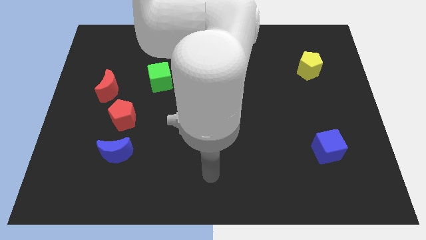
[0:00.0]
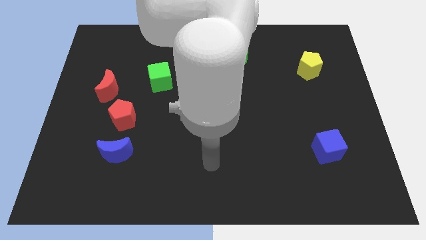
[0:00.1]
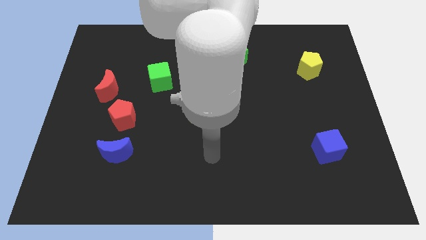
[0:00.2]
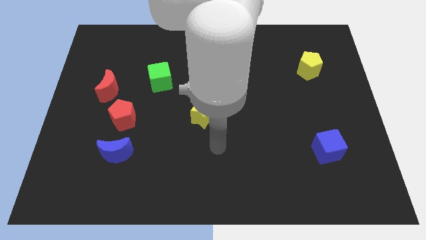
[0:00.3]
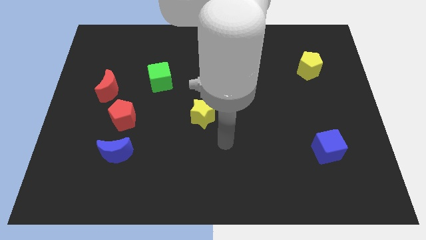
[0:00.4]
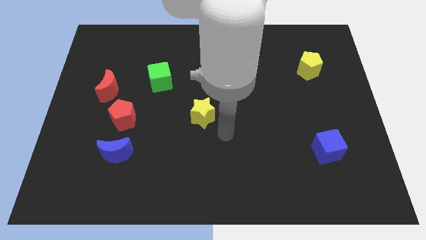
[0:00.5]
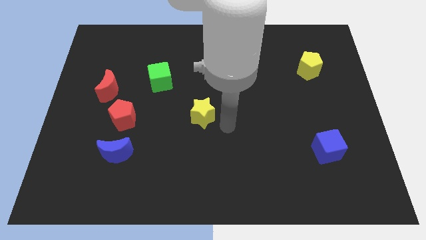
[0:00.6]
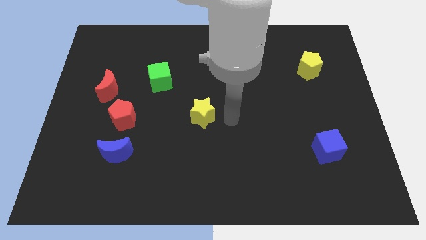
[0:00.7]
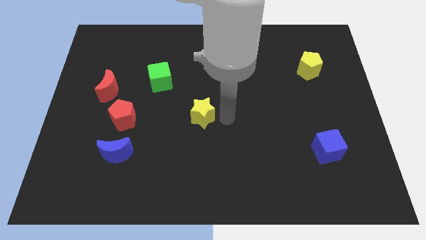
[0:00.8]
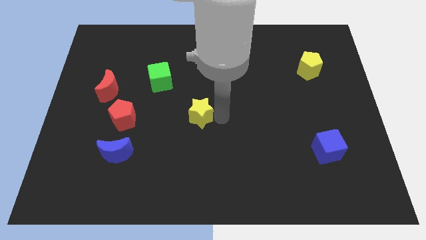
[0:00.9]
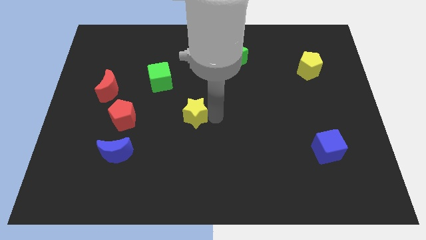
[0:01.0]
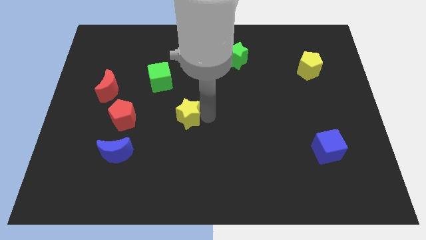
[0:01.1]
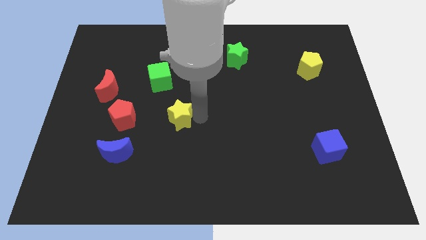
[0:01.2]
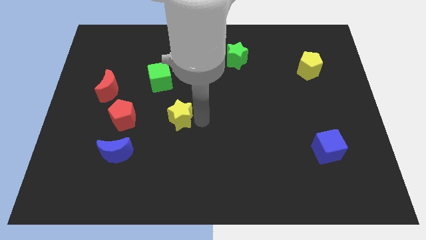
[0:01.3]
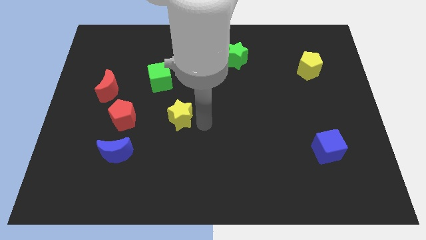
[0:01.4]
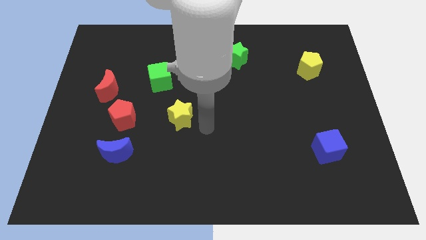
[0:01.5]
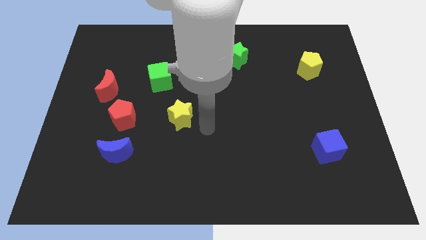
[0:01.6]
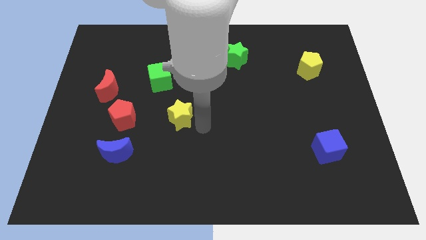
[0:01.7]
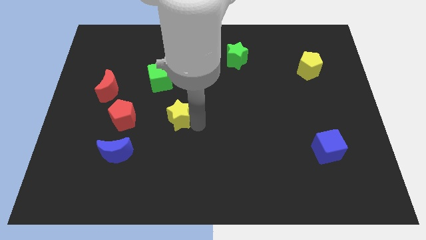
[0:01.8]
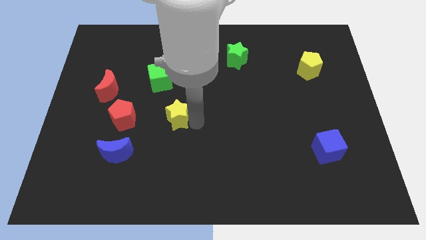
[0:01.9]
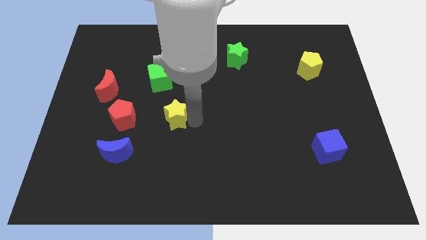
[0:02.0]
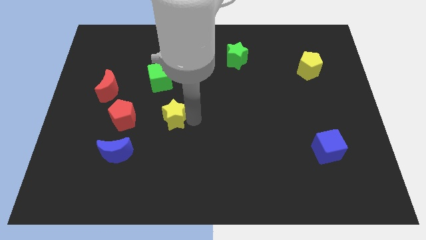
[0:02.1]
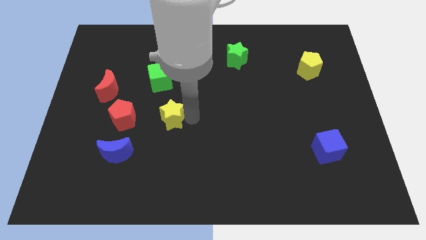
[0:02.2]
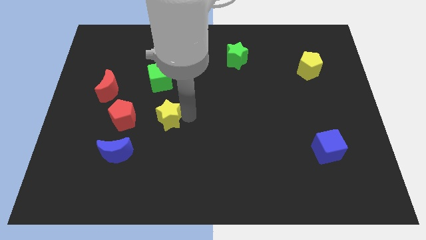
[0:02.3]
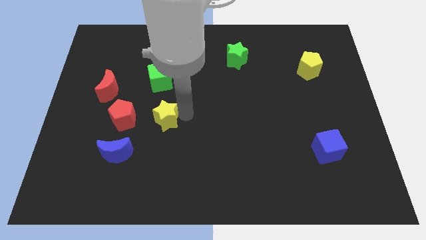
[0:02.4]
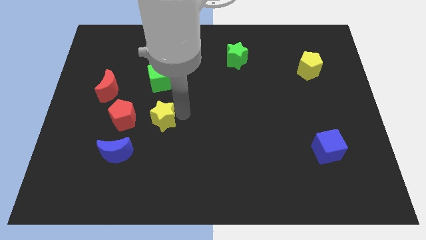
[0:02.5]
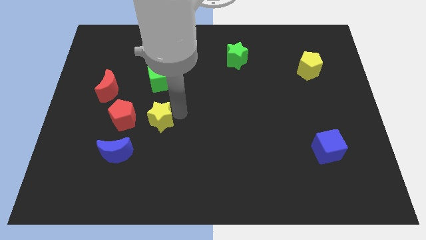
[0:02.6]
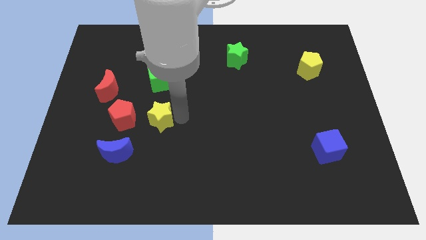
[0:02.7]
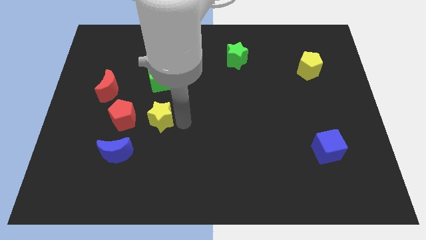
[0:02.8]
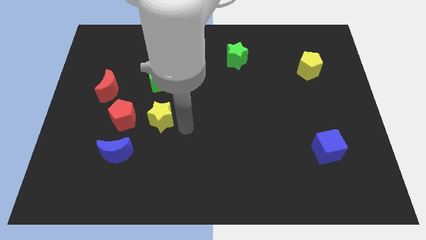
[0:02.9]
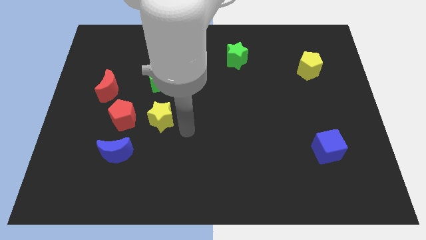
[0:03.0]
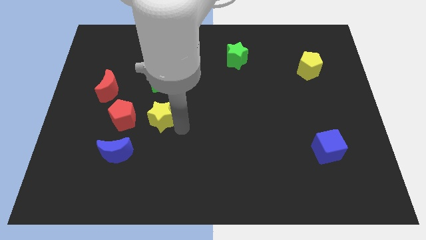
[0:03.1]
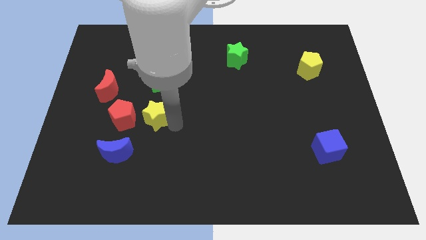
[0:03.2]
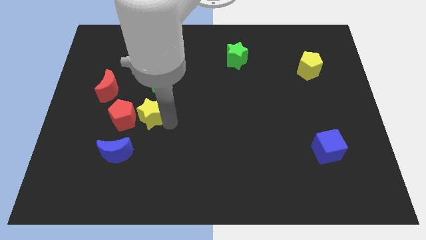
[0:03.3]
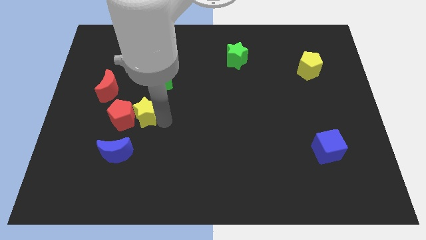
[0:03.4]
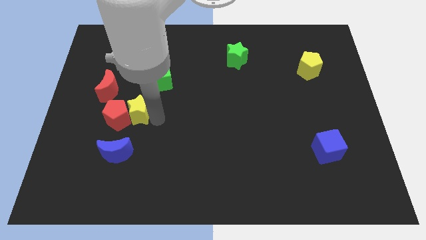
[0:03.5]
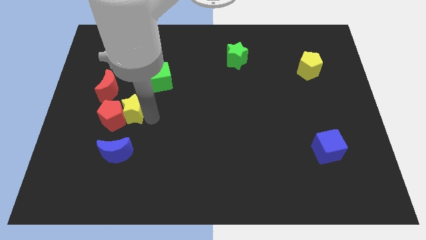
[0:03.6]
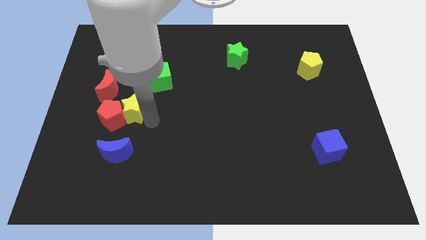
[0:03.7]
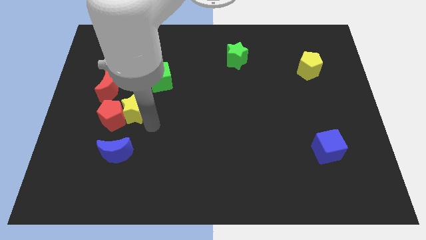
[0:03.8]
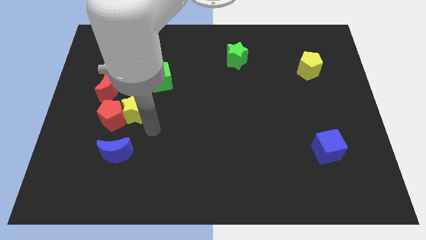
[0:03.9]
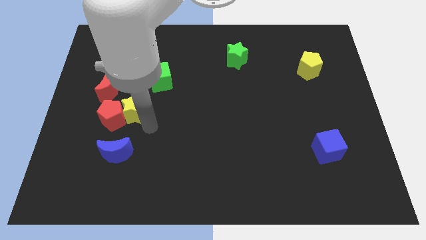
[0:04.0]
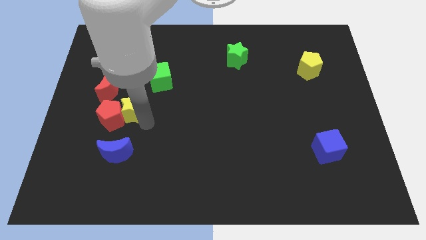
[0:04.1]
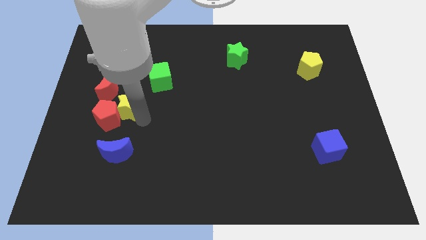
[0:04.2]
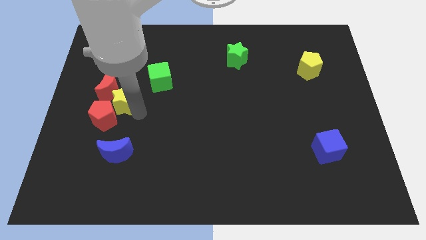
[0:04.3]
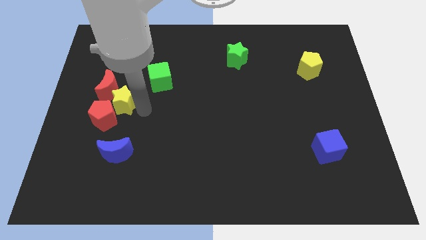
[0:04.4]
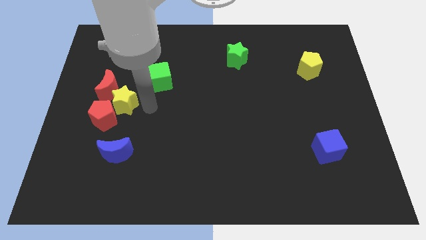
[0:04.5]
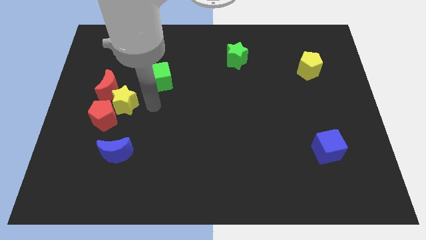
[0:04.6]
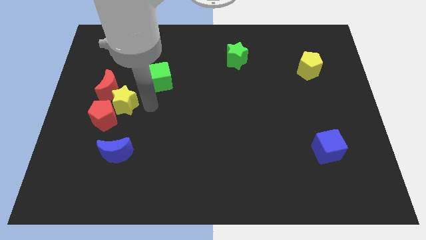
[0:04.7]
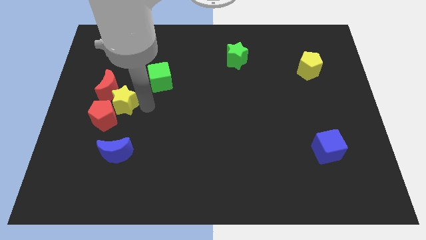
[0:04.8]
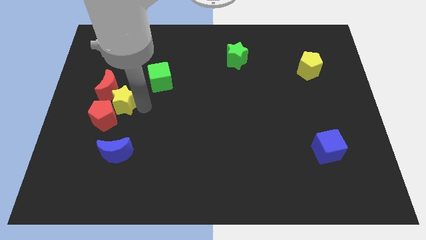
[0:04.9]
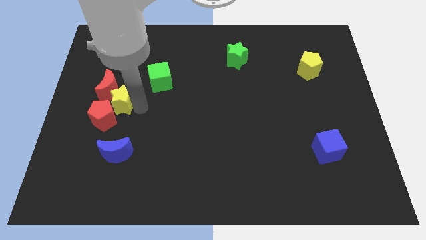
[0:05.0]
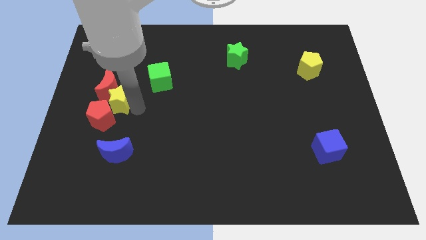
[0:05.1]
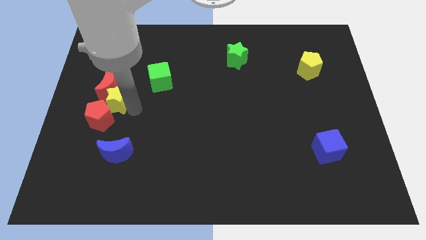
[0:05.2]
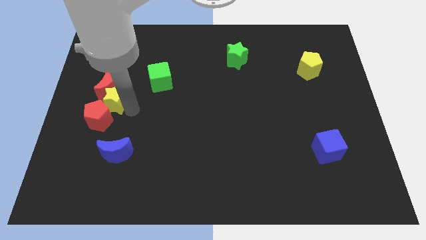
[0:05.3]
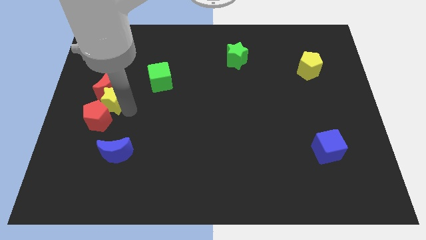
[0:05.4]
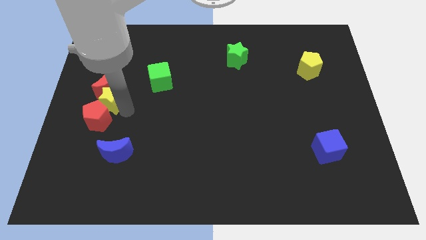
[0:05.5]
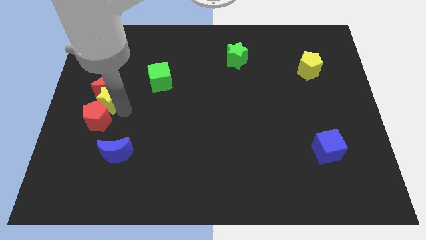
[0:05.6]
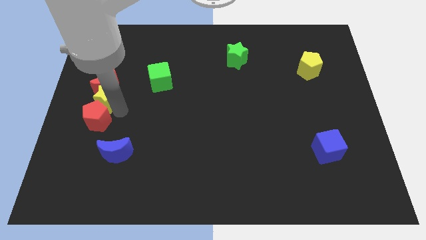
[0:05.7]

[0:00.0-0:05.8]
move the yellow star to the left side of the board

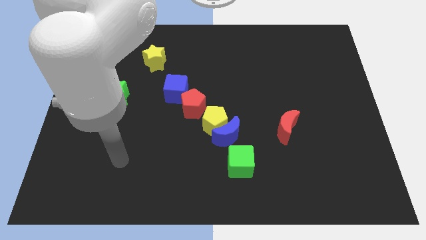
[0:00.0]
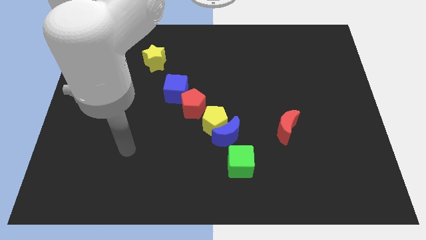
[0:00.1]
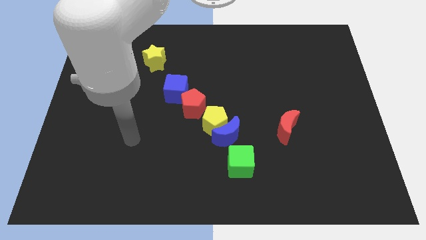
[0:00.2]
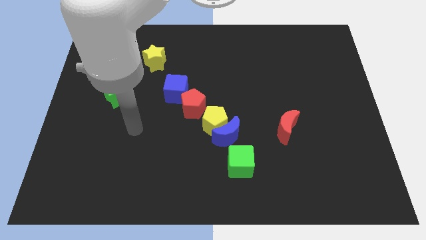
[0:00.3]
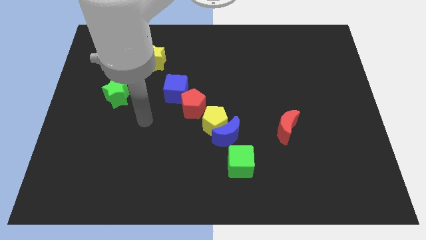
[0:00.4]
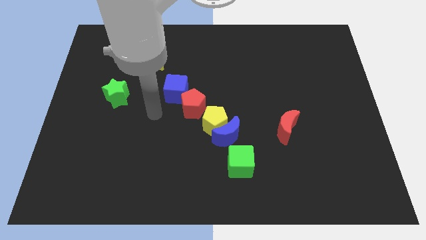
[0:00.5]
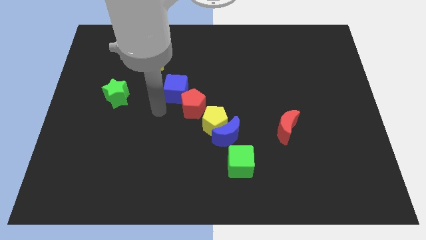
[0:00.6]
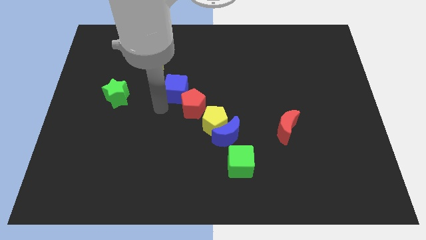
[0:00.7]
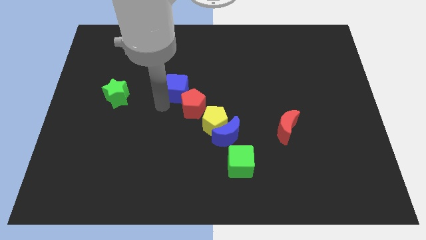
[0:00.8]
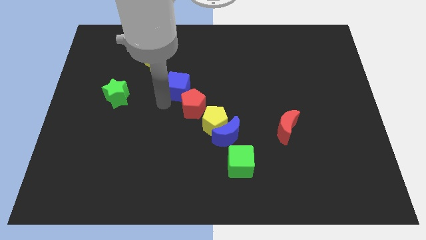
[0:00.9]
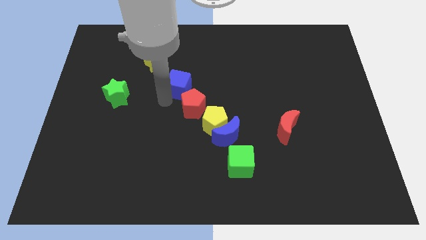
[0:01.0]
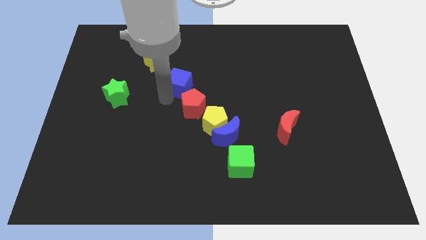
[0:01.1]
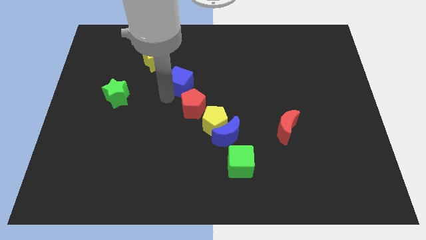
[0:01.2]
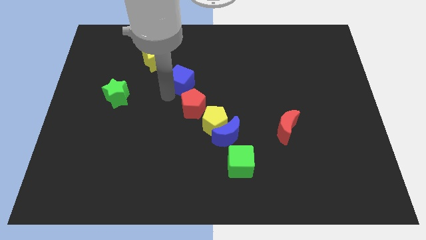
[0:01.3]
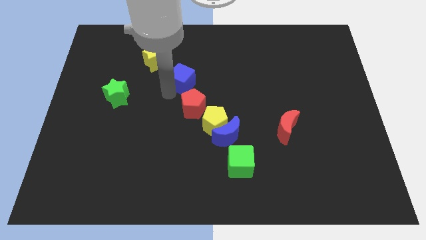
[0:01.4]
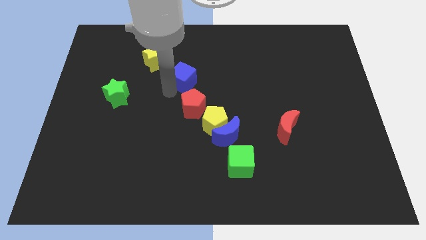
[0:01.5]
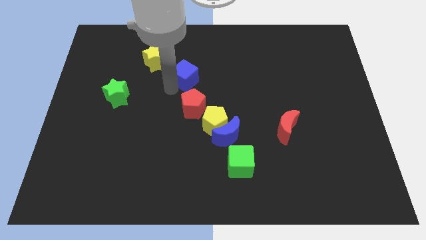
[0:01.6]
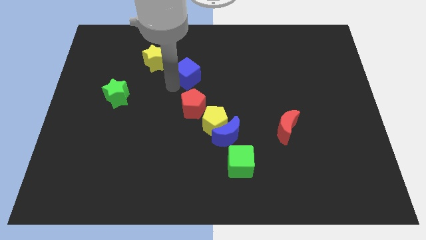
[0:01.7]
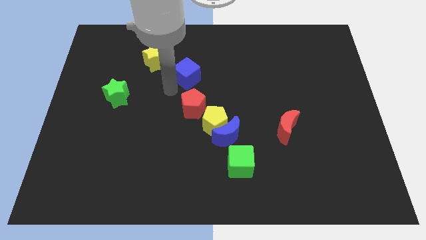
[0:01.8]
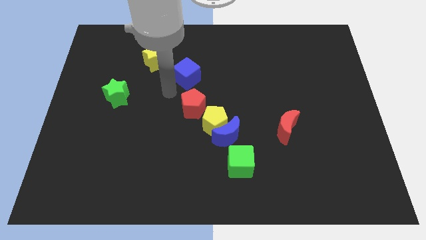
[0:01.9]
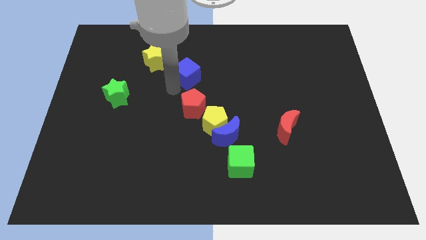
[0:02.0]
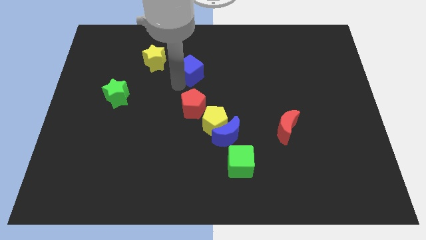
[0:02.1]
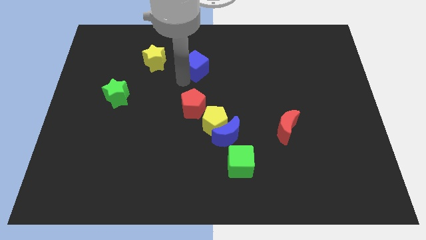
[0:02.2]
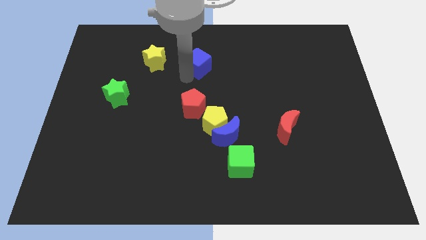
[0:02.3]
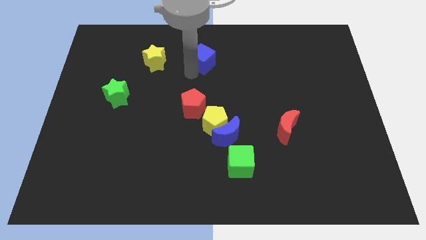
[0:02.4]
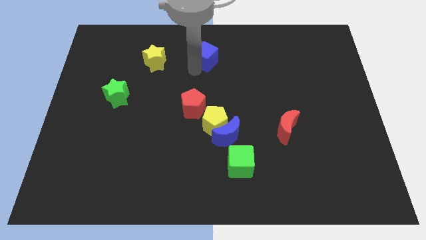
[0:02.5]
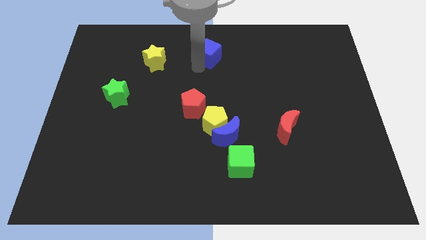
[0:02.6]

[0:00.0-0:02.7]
push the blue cube to the top side
